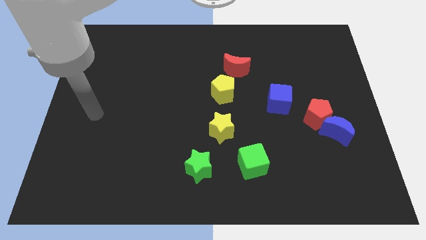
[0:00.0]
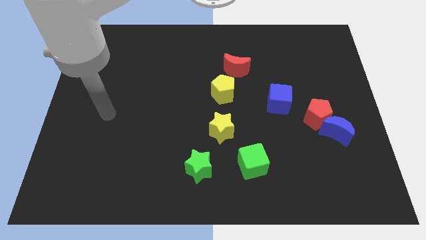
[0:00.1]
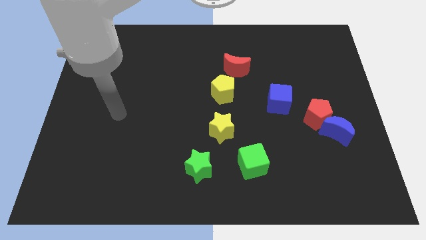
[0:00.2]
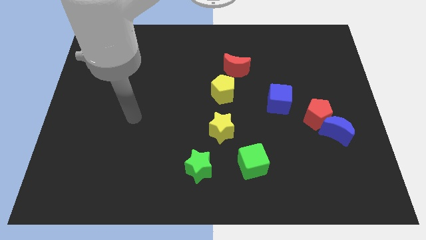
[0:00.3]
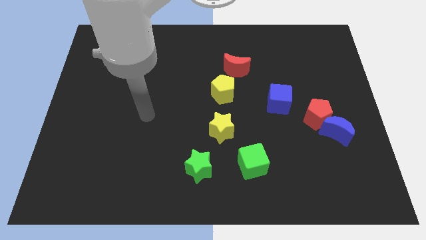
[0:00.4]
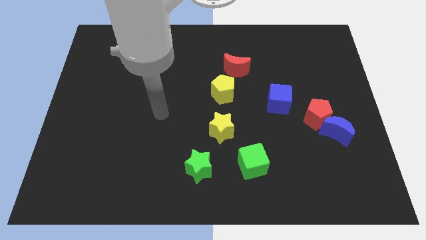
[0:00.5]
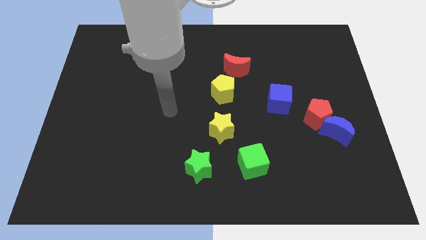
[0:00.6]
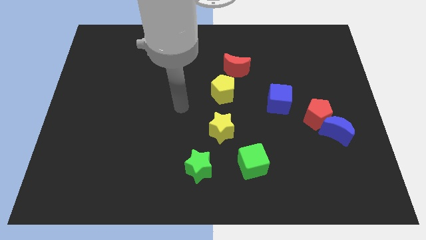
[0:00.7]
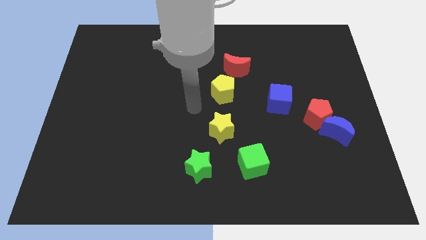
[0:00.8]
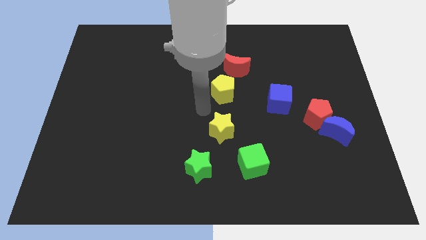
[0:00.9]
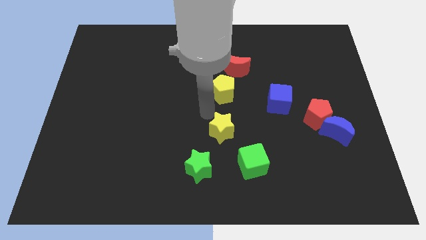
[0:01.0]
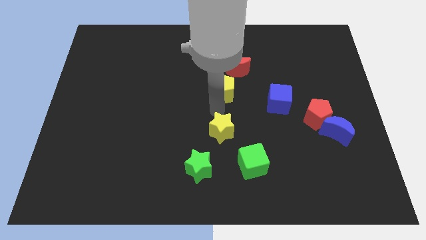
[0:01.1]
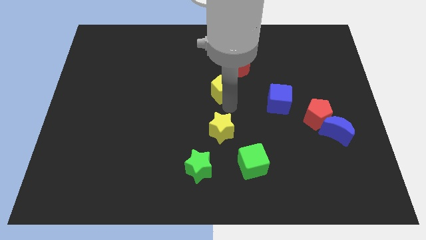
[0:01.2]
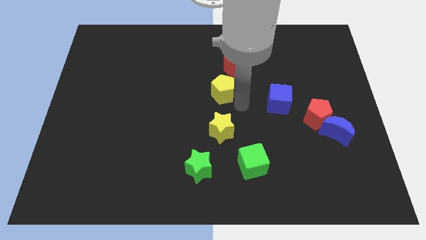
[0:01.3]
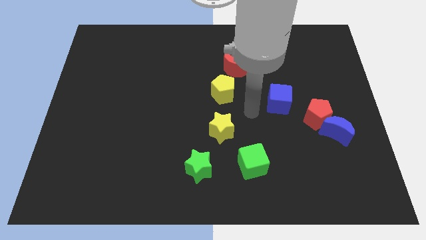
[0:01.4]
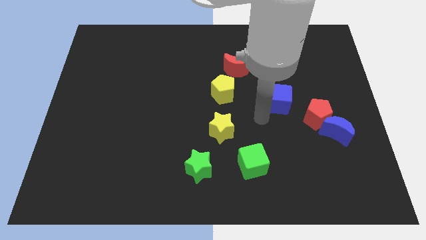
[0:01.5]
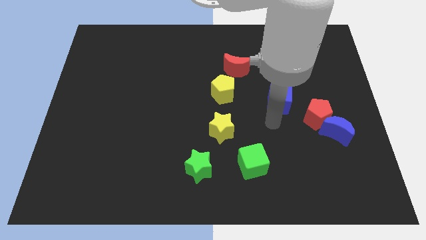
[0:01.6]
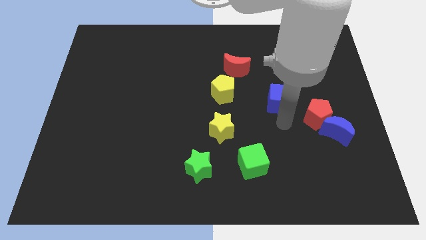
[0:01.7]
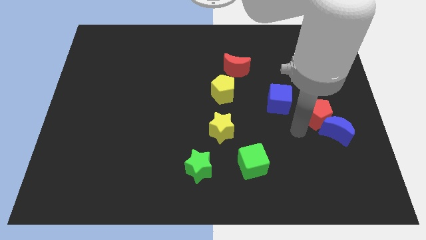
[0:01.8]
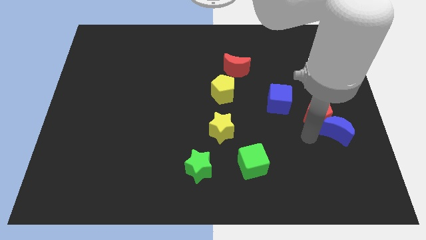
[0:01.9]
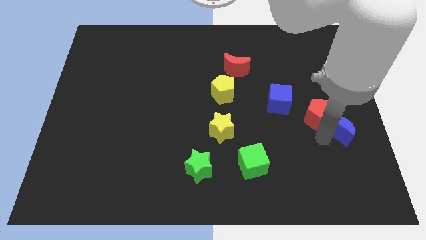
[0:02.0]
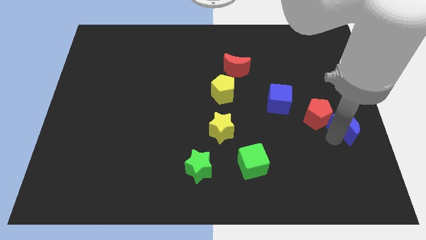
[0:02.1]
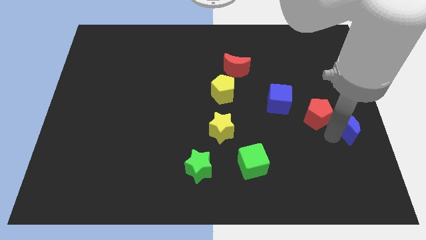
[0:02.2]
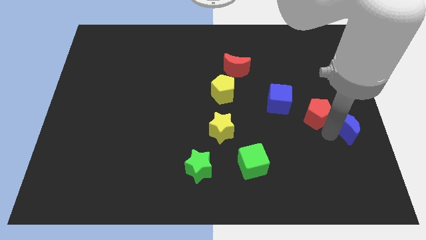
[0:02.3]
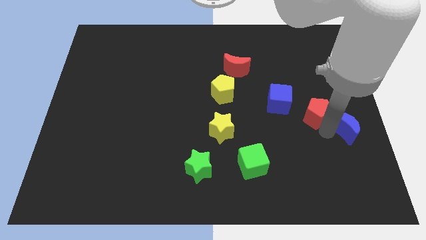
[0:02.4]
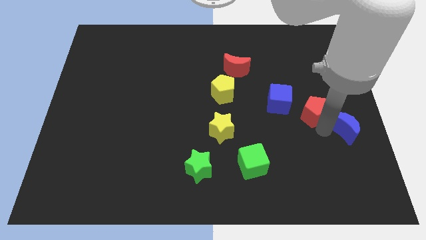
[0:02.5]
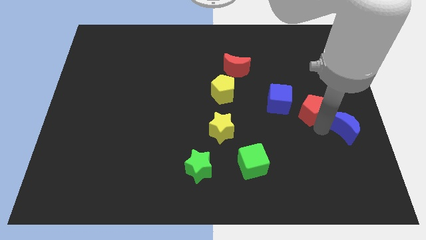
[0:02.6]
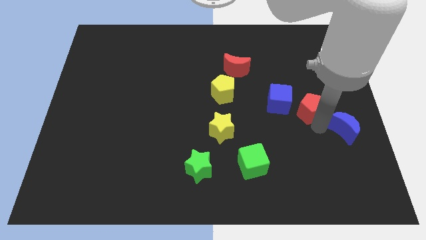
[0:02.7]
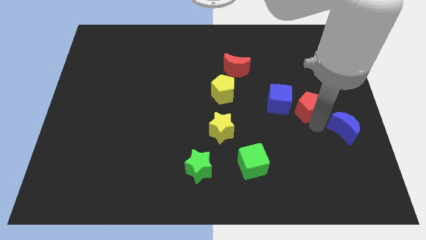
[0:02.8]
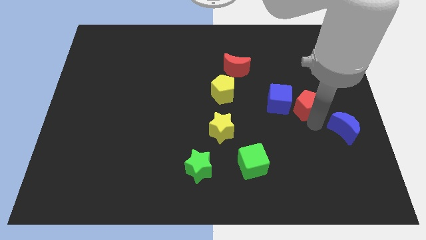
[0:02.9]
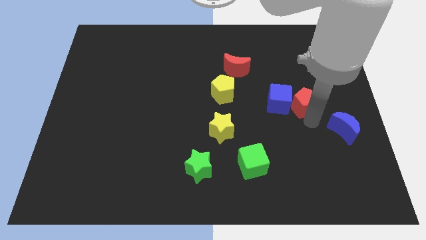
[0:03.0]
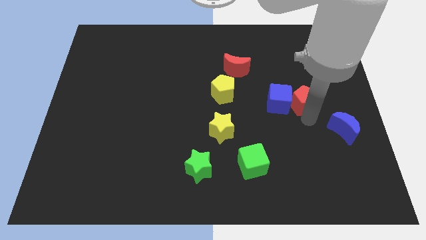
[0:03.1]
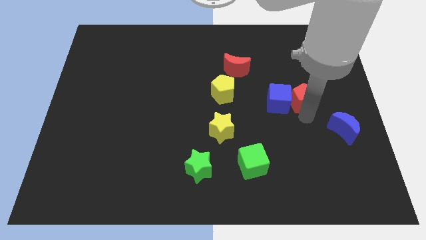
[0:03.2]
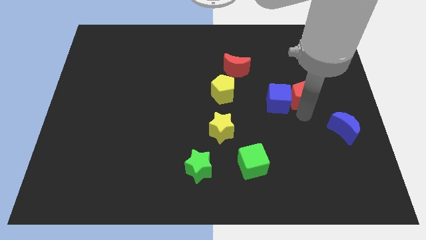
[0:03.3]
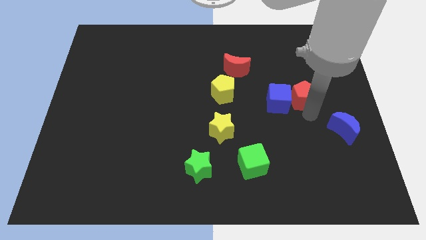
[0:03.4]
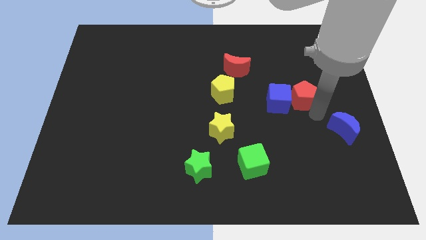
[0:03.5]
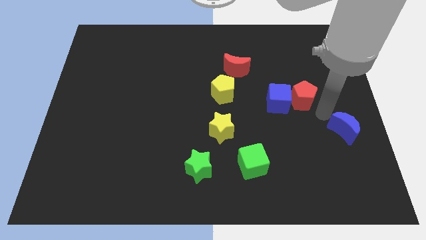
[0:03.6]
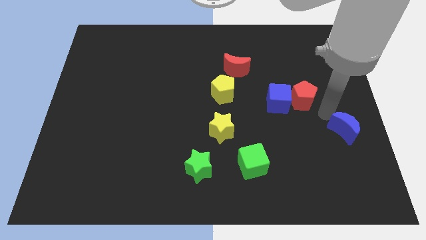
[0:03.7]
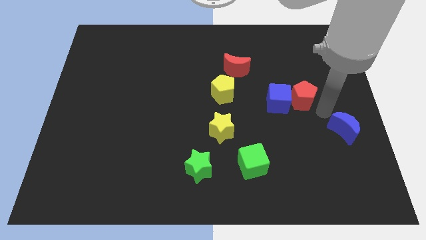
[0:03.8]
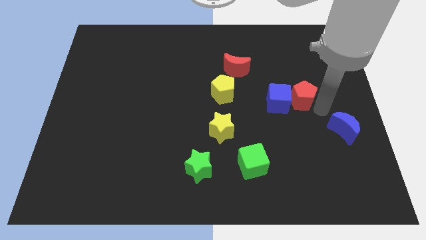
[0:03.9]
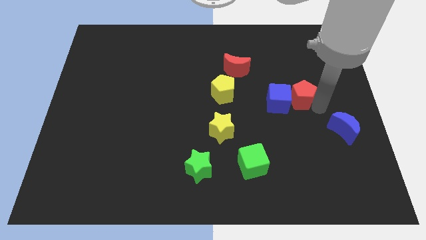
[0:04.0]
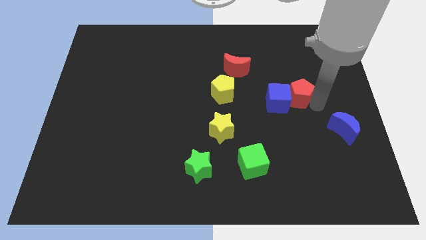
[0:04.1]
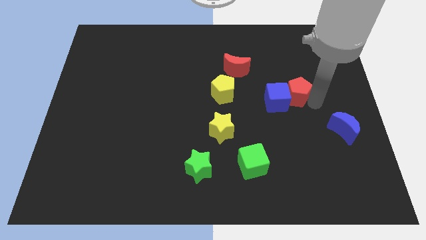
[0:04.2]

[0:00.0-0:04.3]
move the red pentagon somewhat diagonally upwards and left

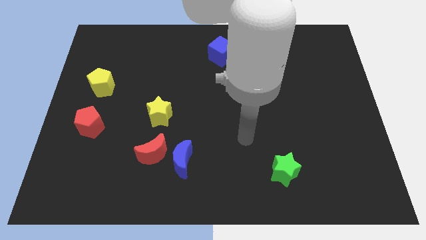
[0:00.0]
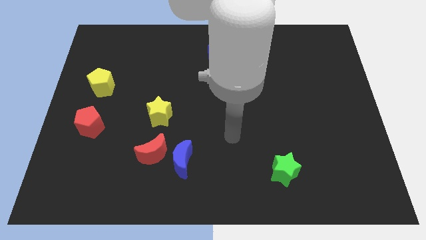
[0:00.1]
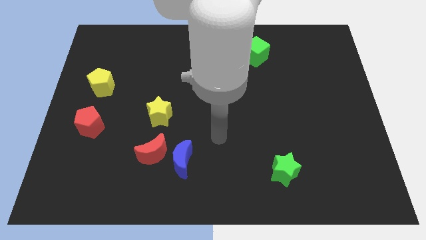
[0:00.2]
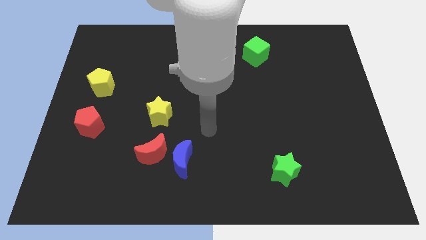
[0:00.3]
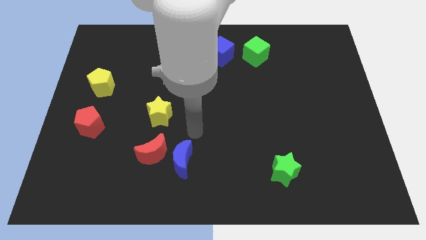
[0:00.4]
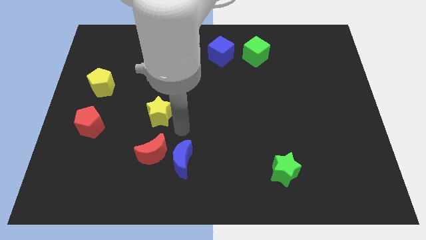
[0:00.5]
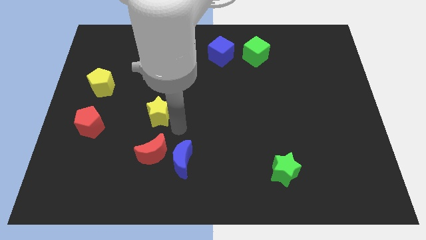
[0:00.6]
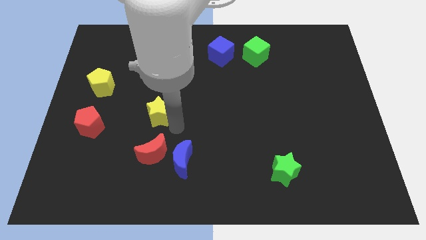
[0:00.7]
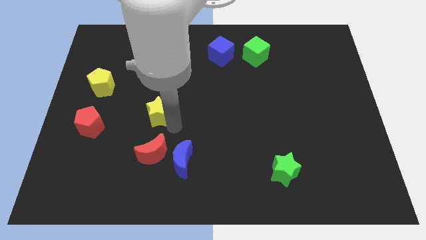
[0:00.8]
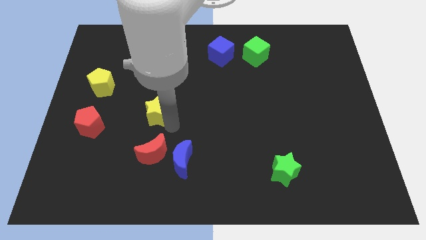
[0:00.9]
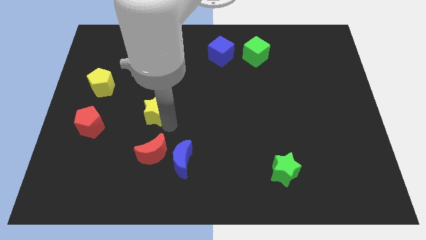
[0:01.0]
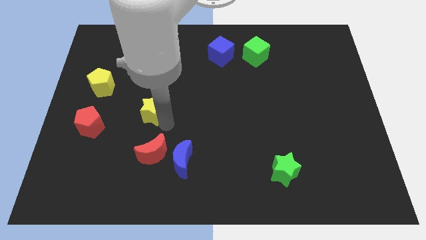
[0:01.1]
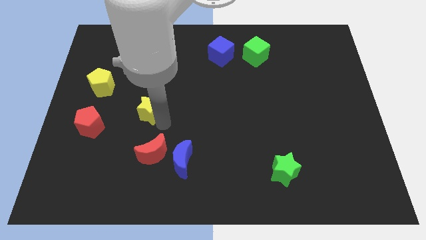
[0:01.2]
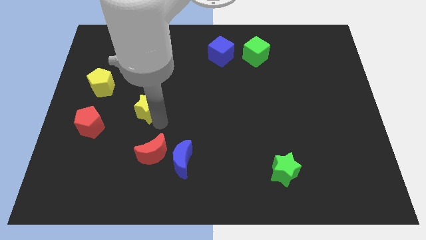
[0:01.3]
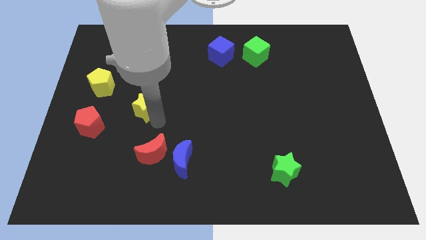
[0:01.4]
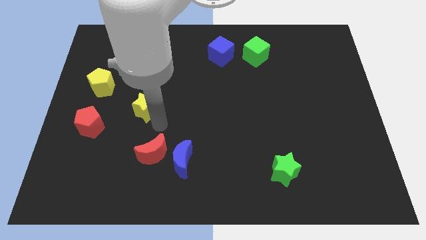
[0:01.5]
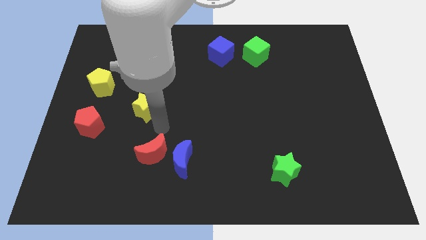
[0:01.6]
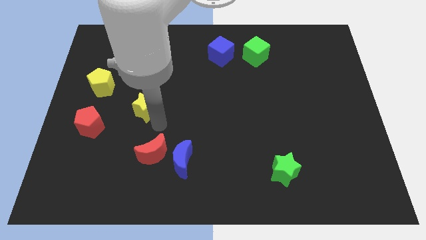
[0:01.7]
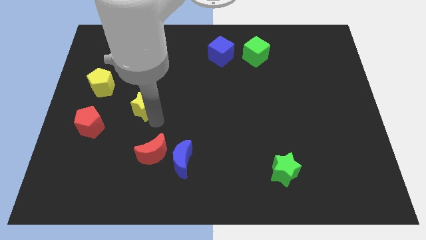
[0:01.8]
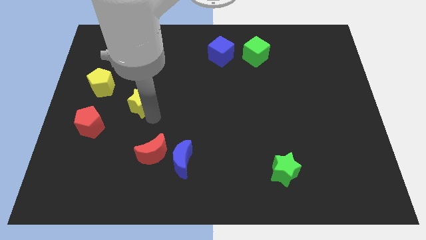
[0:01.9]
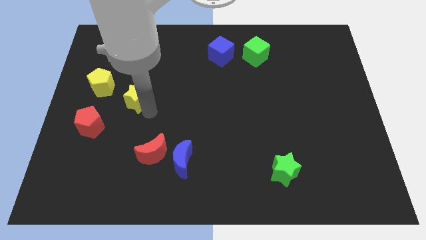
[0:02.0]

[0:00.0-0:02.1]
move the yellow star a little bit up and then to the left

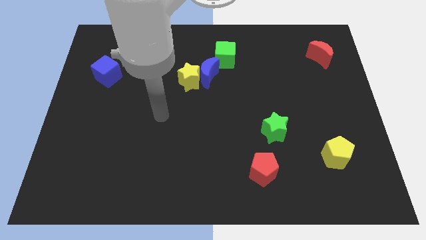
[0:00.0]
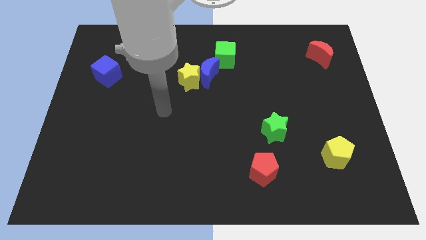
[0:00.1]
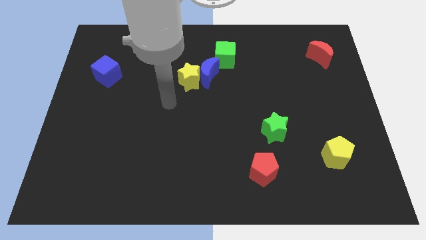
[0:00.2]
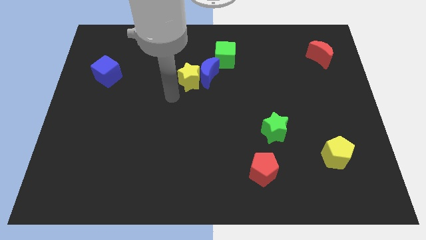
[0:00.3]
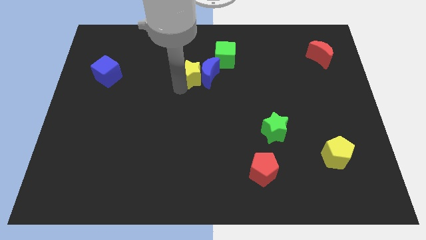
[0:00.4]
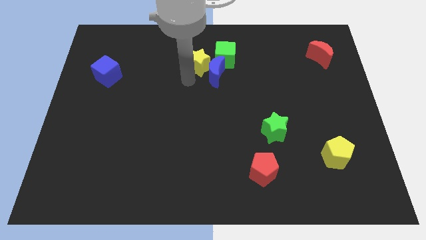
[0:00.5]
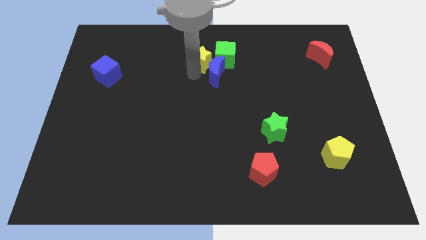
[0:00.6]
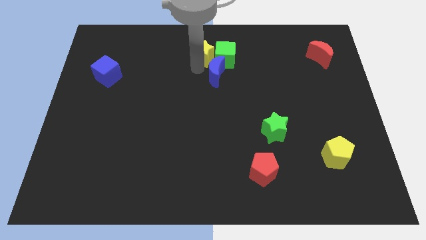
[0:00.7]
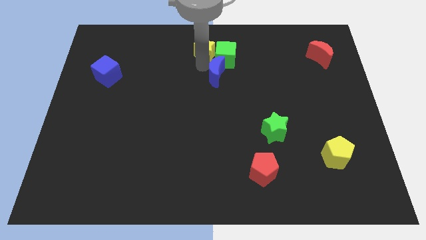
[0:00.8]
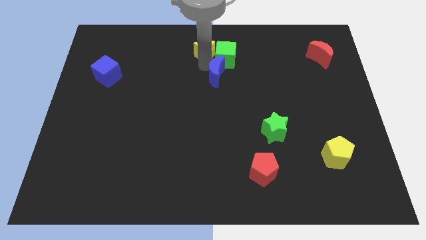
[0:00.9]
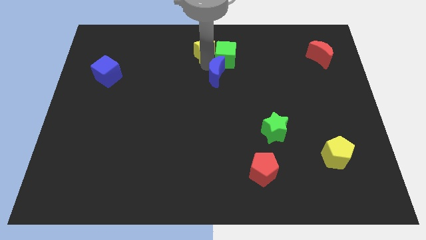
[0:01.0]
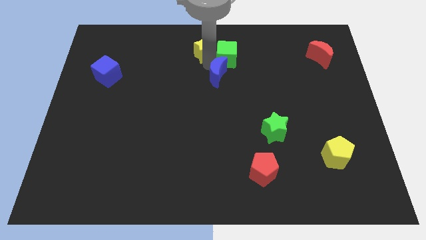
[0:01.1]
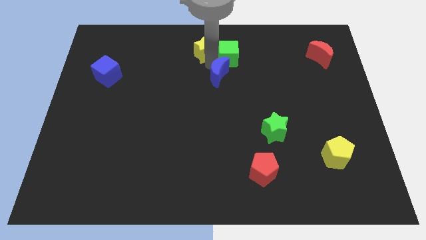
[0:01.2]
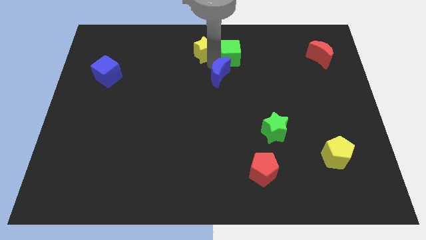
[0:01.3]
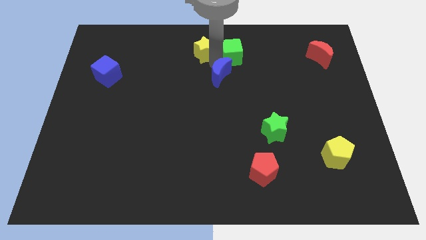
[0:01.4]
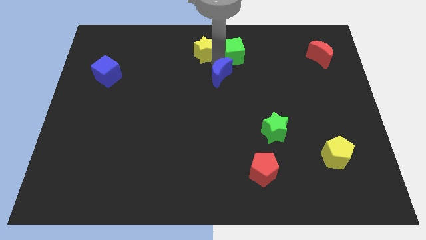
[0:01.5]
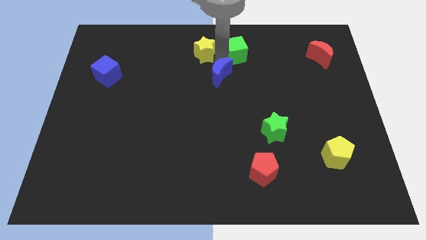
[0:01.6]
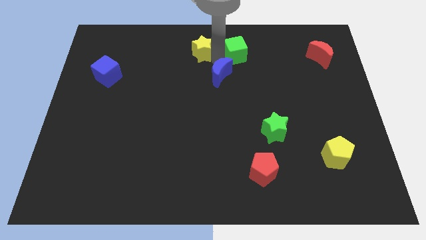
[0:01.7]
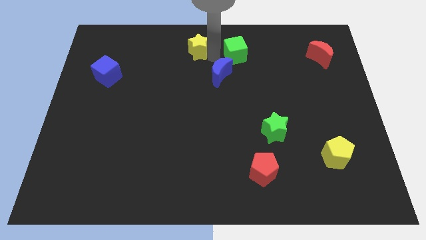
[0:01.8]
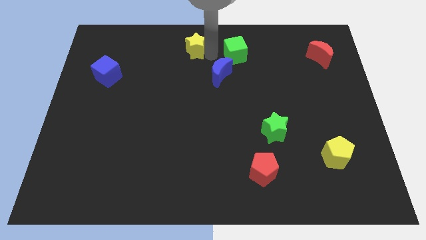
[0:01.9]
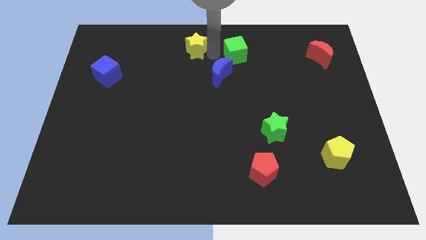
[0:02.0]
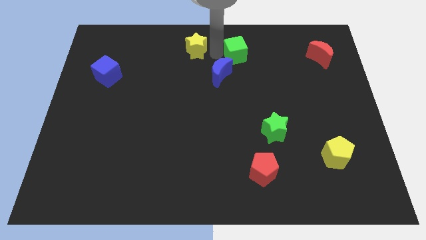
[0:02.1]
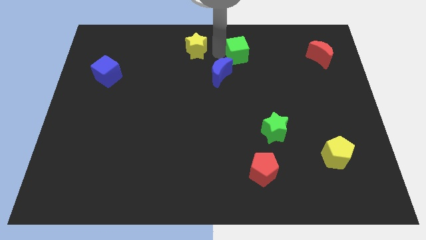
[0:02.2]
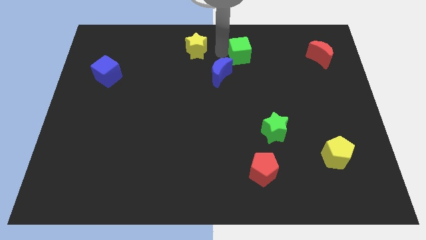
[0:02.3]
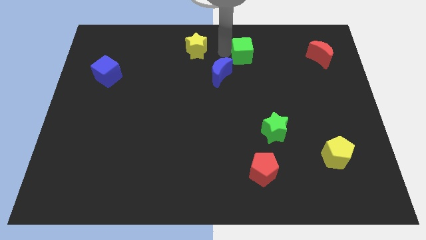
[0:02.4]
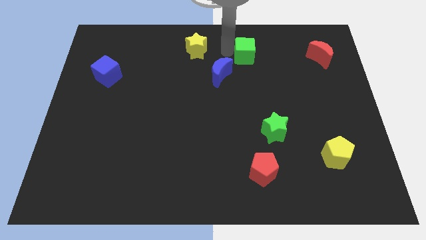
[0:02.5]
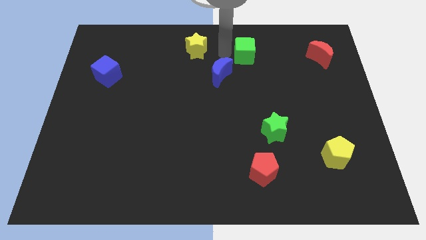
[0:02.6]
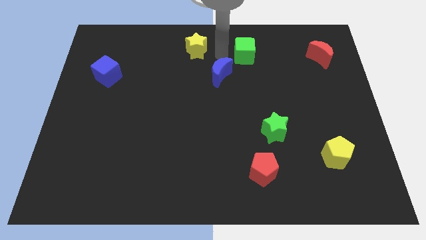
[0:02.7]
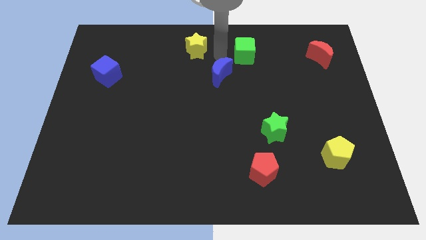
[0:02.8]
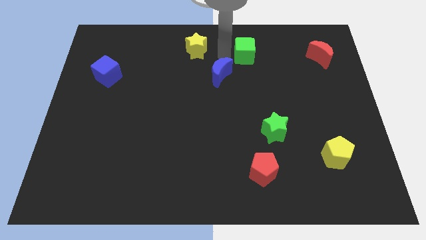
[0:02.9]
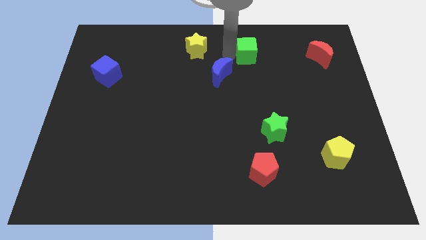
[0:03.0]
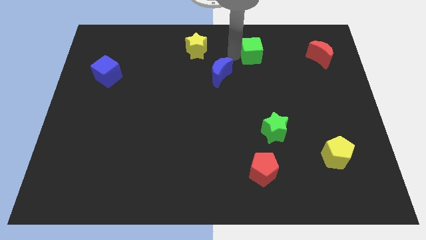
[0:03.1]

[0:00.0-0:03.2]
push the green cube somewhat right
